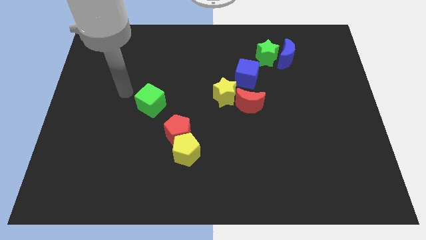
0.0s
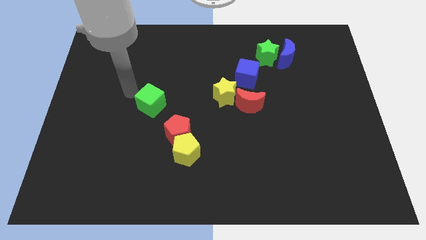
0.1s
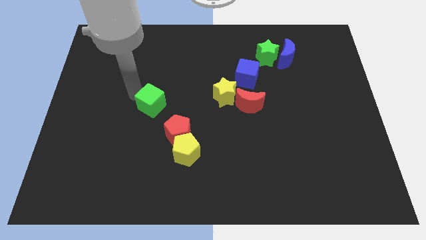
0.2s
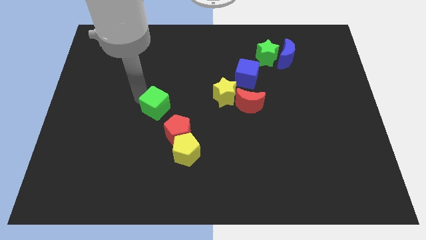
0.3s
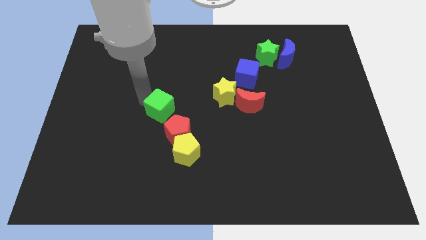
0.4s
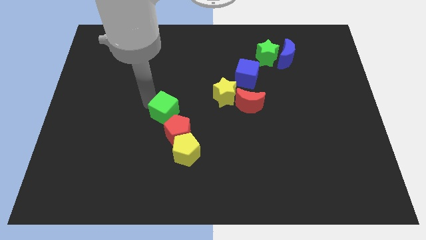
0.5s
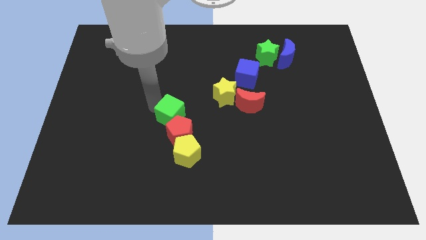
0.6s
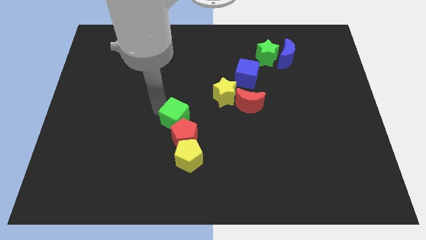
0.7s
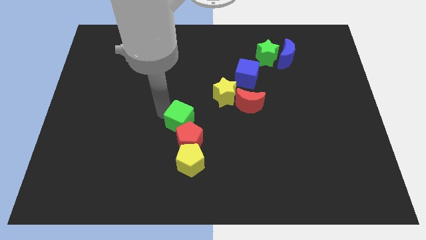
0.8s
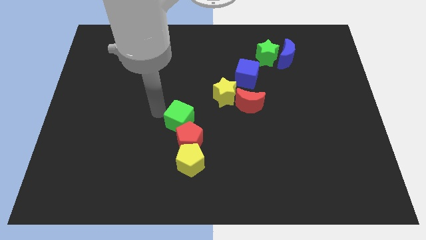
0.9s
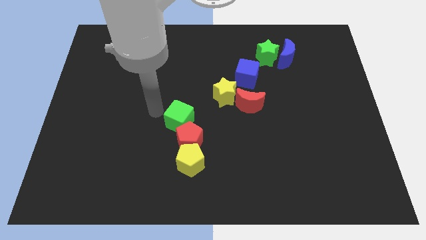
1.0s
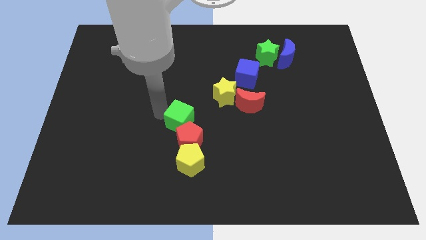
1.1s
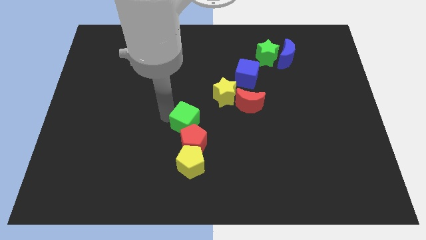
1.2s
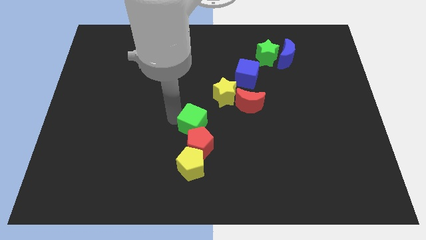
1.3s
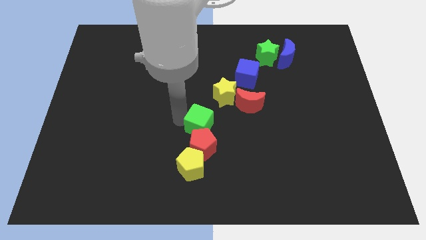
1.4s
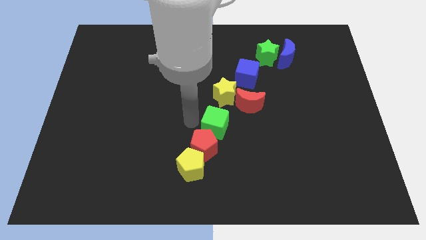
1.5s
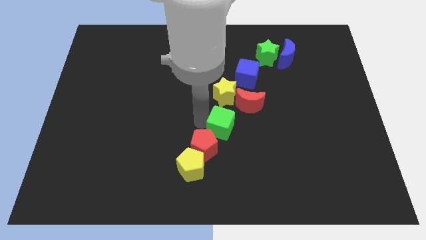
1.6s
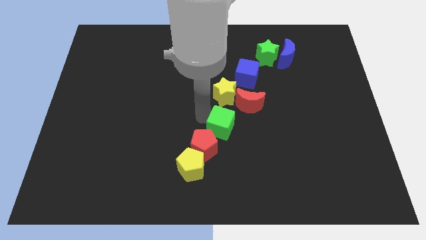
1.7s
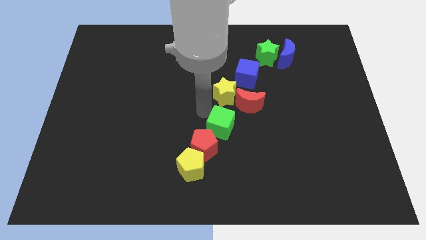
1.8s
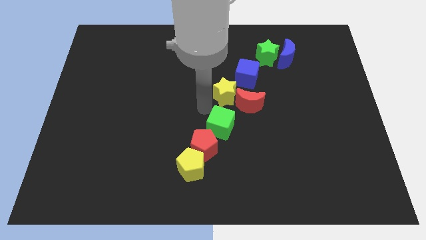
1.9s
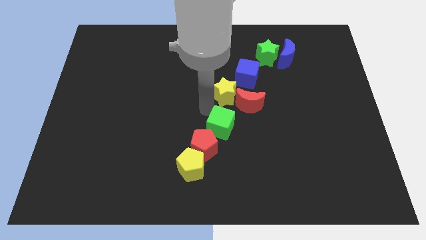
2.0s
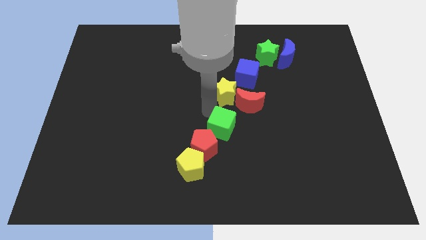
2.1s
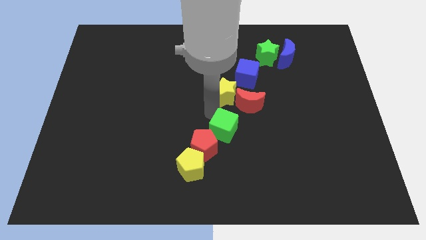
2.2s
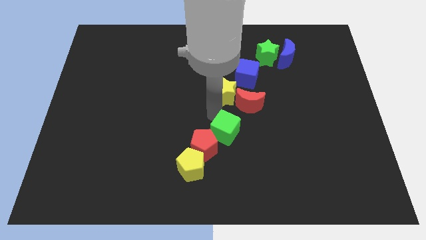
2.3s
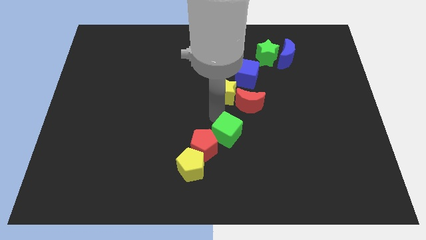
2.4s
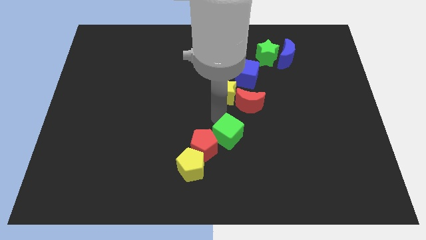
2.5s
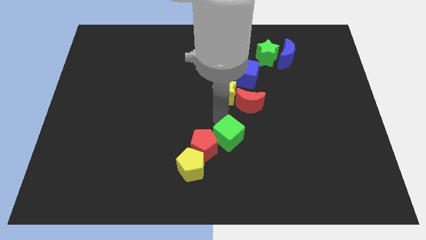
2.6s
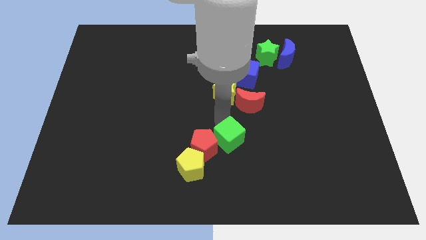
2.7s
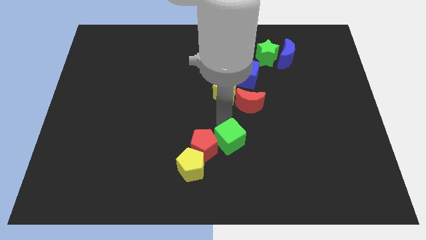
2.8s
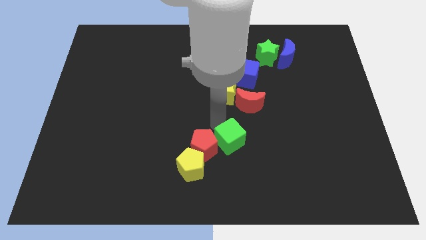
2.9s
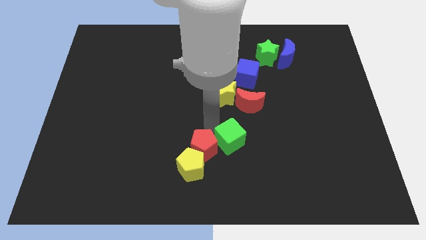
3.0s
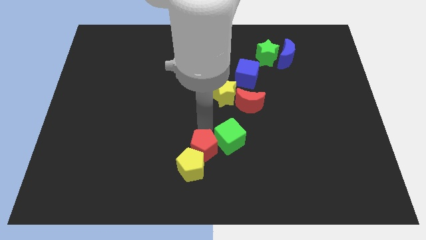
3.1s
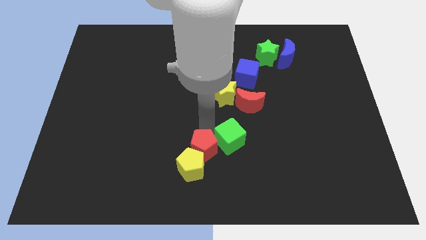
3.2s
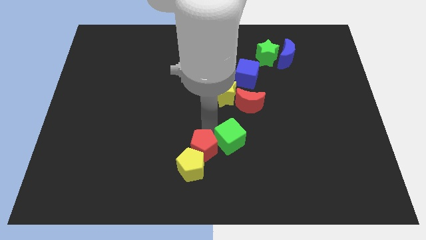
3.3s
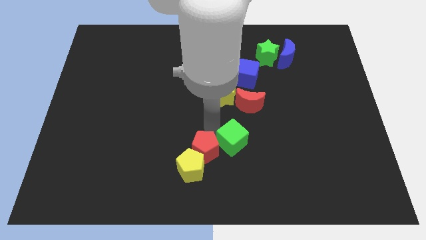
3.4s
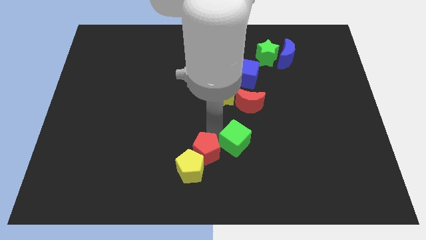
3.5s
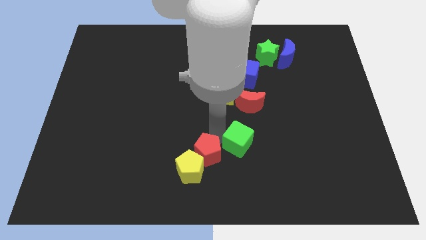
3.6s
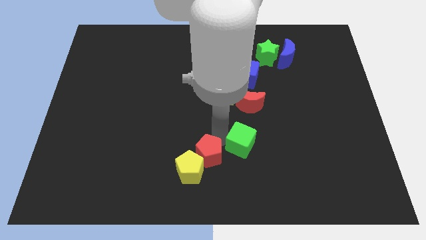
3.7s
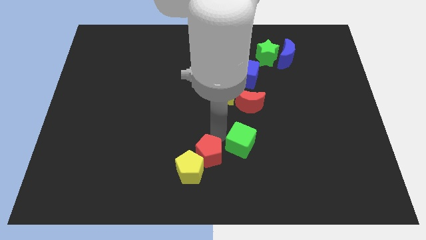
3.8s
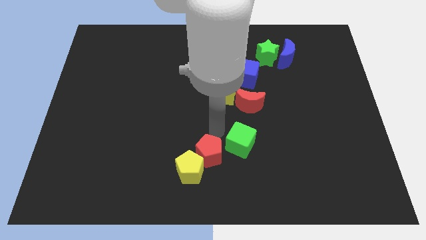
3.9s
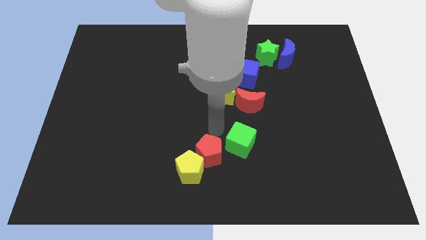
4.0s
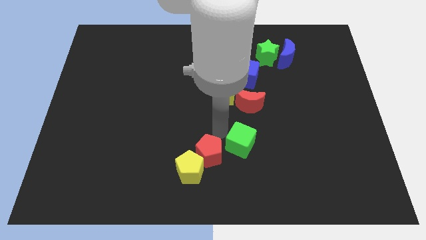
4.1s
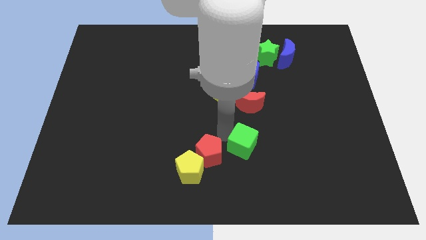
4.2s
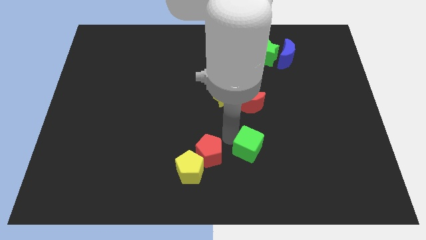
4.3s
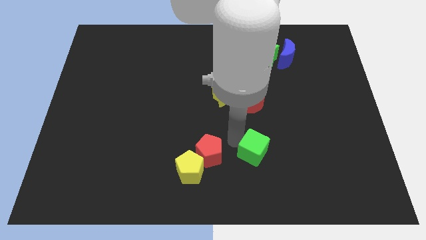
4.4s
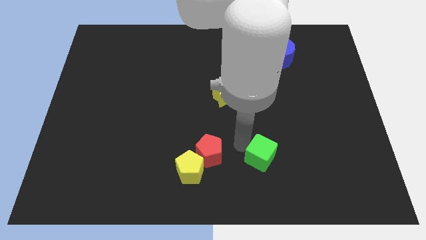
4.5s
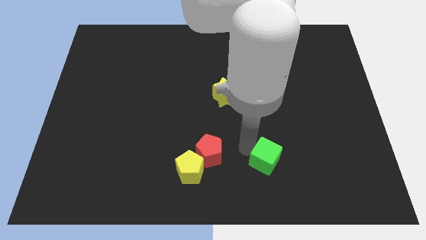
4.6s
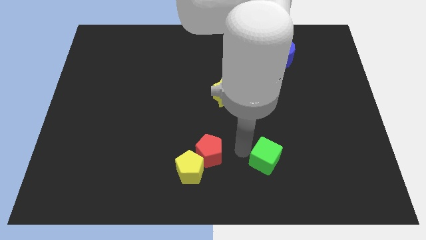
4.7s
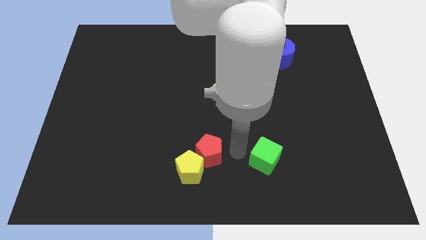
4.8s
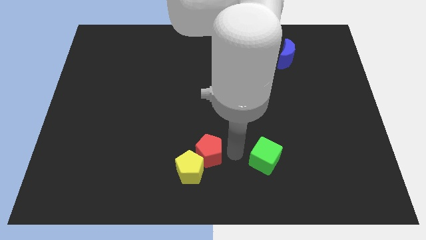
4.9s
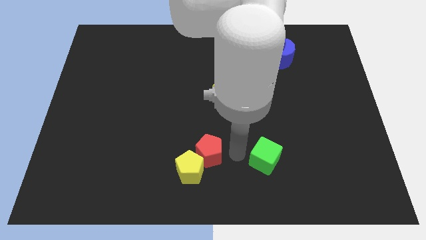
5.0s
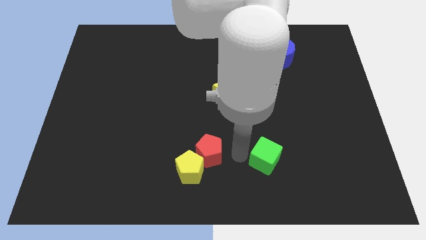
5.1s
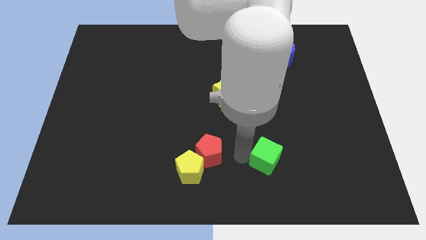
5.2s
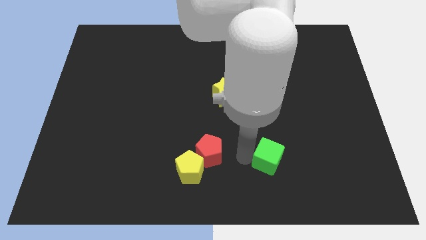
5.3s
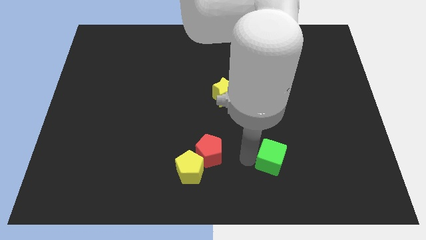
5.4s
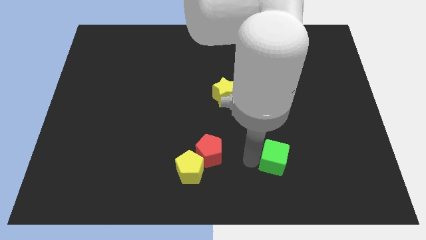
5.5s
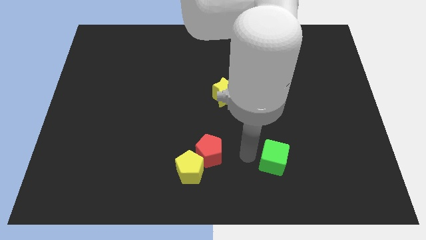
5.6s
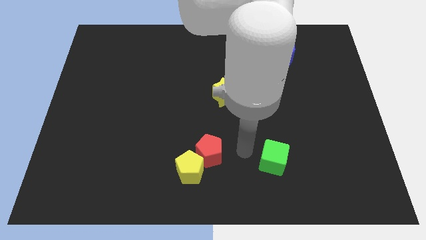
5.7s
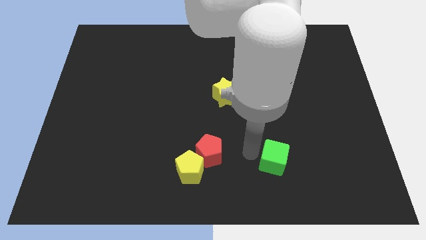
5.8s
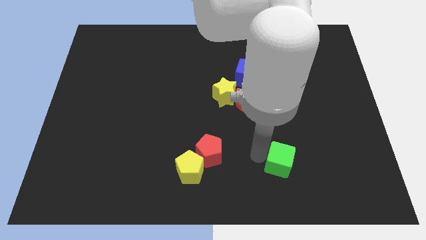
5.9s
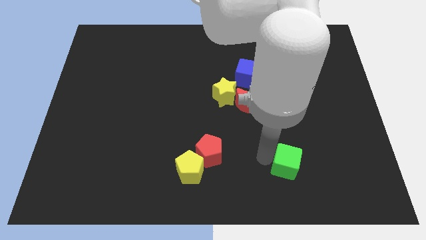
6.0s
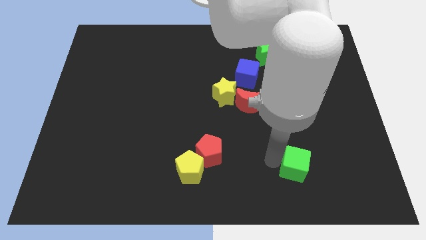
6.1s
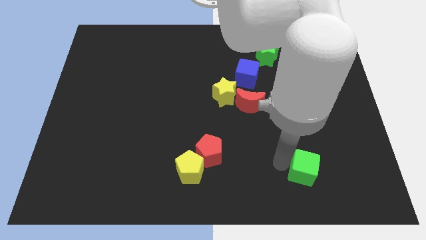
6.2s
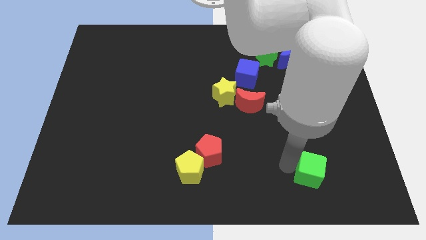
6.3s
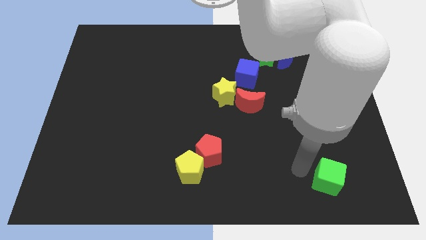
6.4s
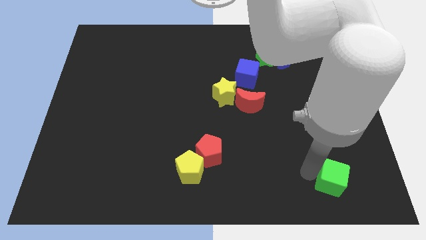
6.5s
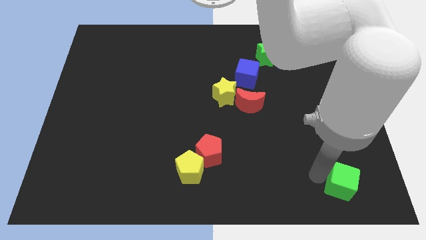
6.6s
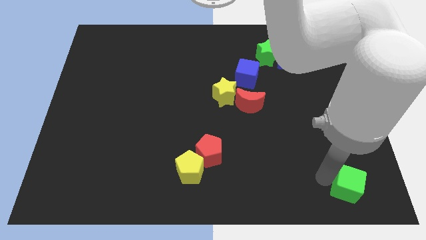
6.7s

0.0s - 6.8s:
put the green cube to the bottom right
